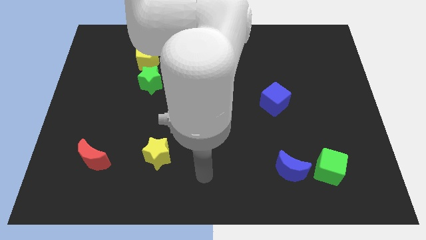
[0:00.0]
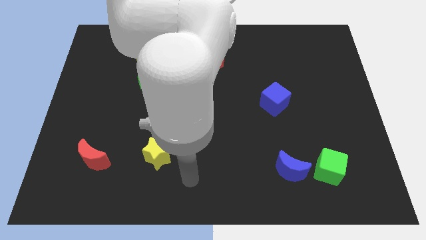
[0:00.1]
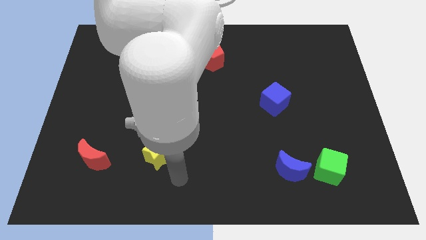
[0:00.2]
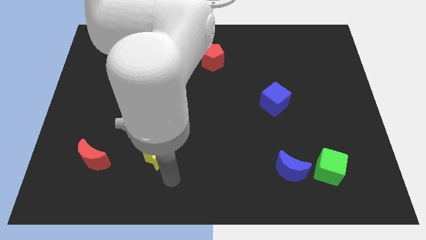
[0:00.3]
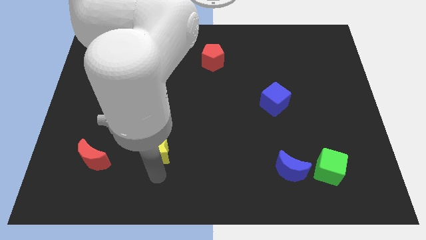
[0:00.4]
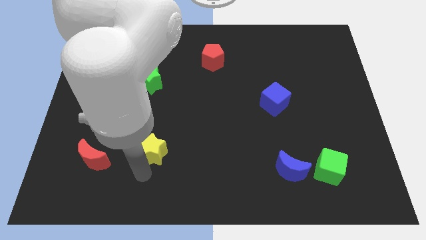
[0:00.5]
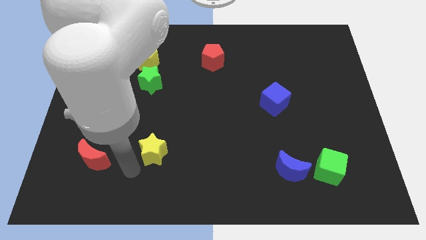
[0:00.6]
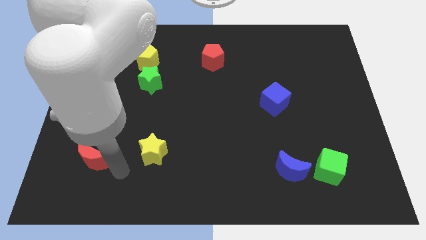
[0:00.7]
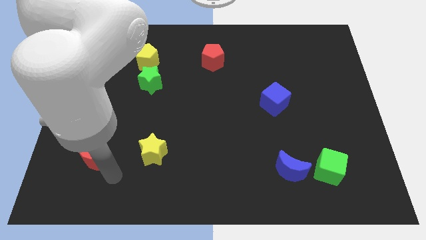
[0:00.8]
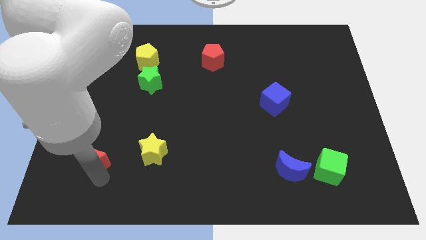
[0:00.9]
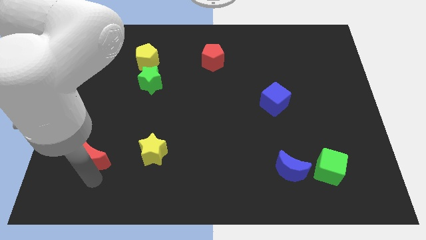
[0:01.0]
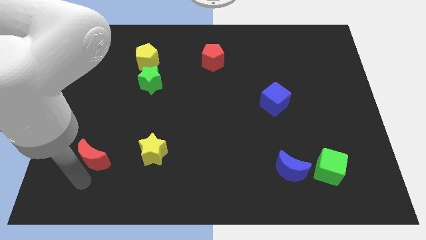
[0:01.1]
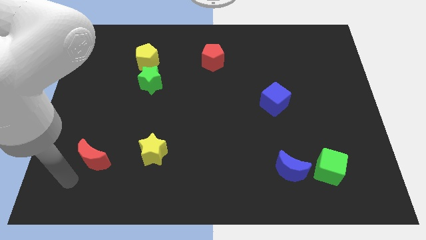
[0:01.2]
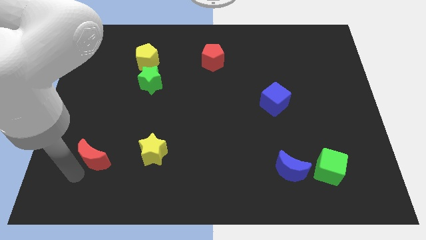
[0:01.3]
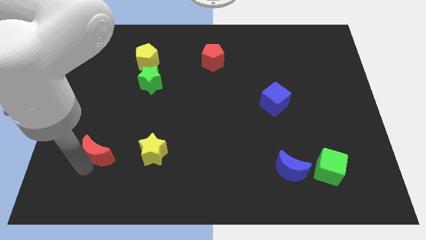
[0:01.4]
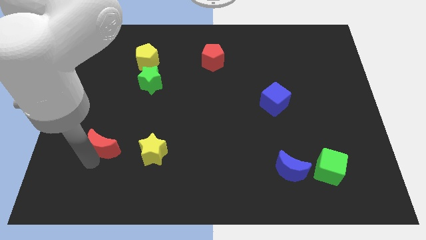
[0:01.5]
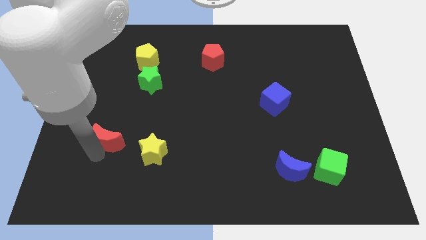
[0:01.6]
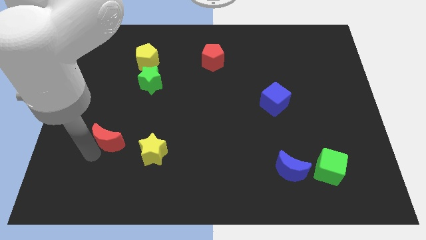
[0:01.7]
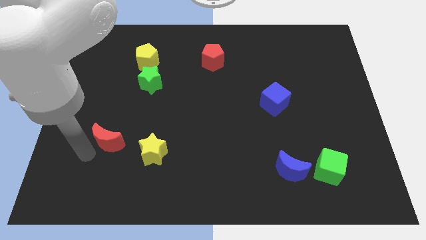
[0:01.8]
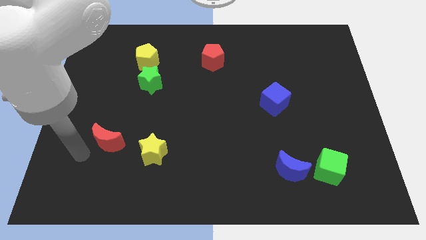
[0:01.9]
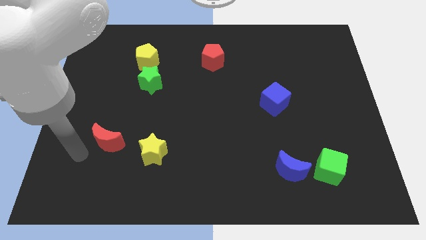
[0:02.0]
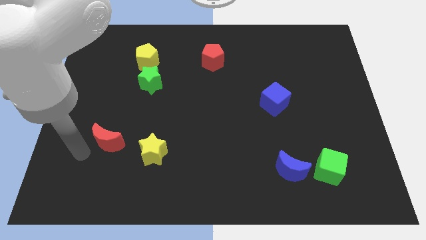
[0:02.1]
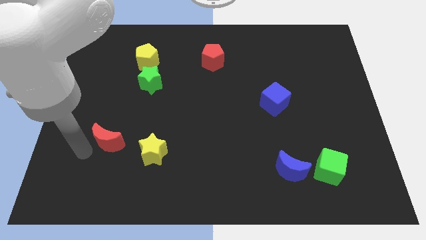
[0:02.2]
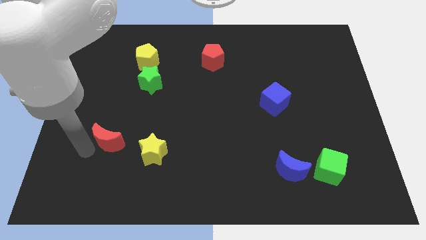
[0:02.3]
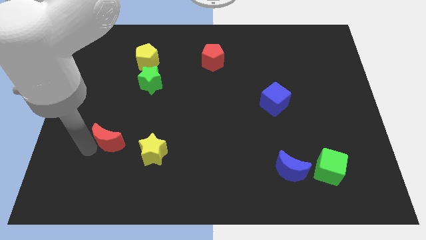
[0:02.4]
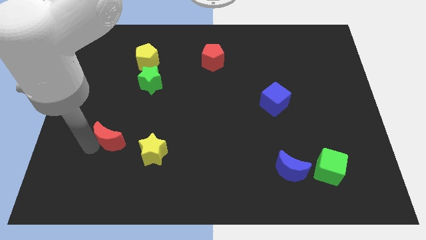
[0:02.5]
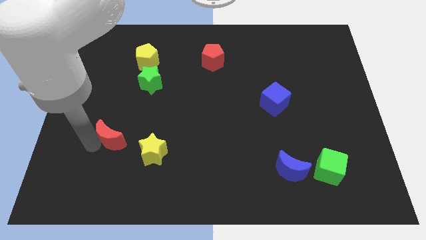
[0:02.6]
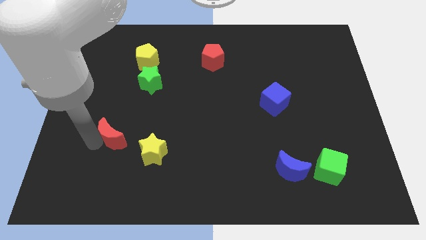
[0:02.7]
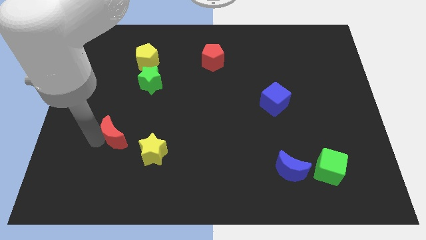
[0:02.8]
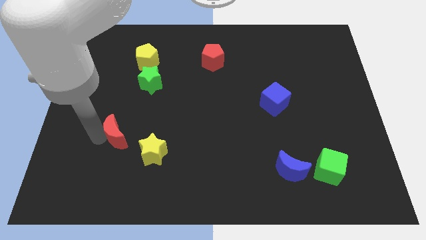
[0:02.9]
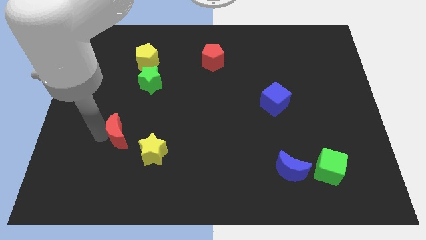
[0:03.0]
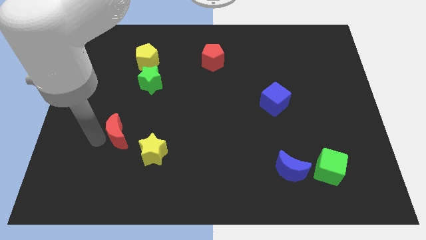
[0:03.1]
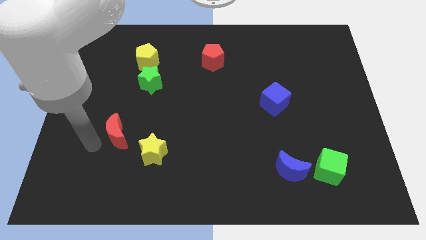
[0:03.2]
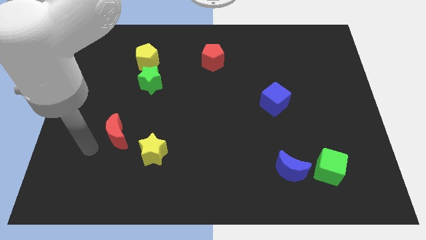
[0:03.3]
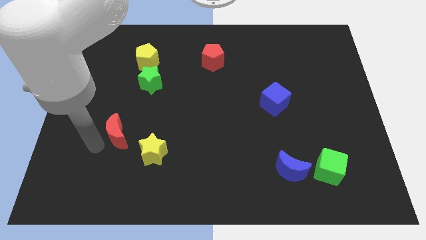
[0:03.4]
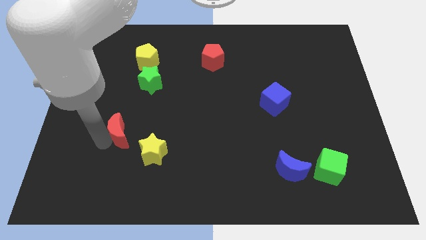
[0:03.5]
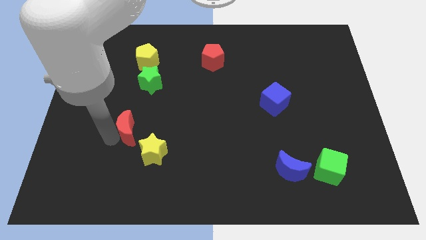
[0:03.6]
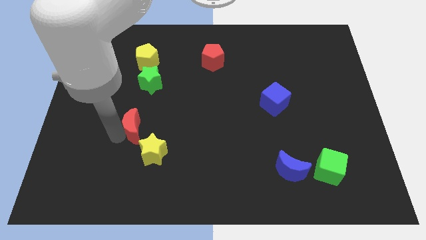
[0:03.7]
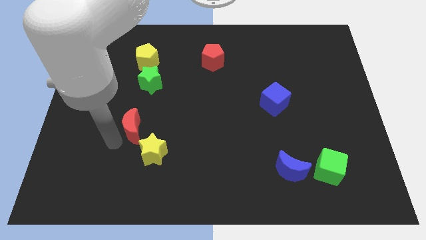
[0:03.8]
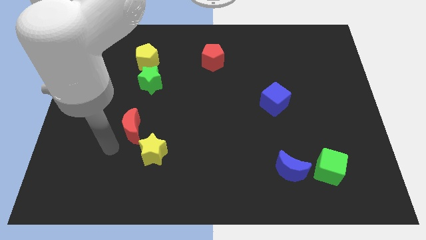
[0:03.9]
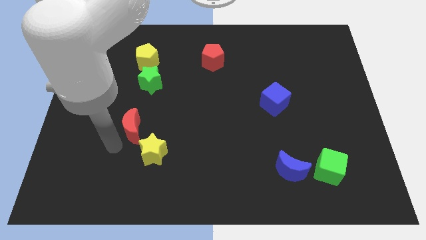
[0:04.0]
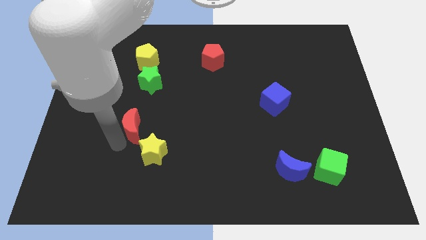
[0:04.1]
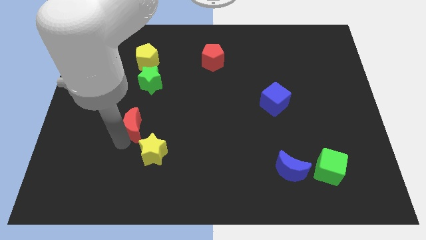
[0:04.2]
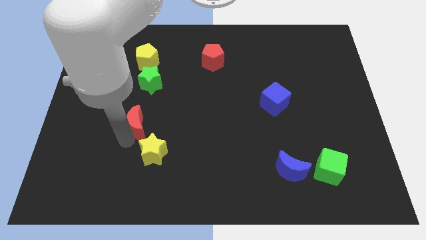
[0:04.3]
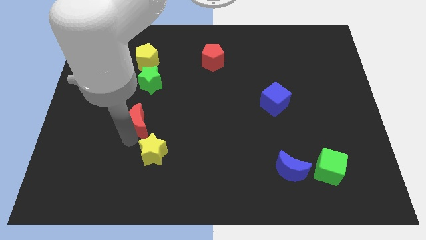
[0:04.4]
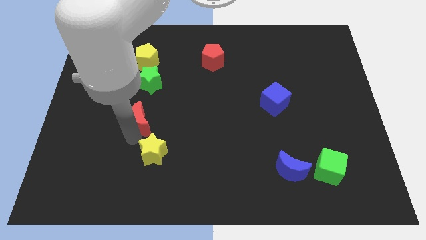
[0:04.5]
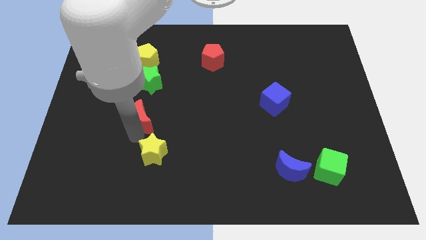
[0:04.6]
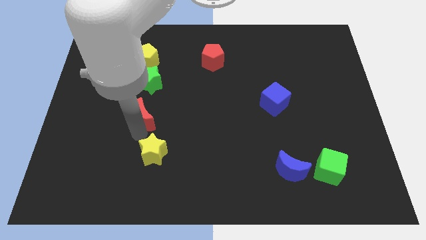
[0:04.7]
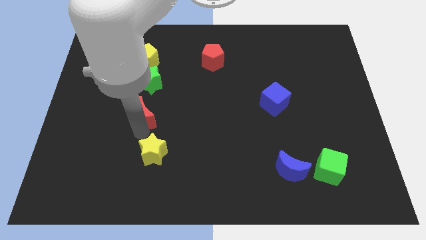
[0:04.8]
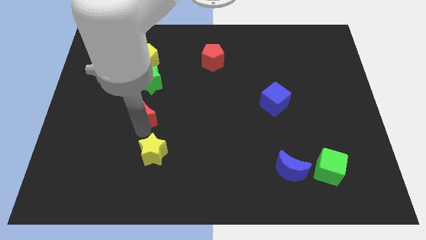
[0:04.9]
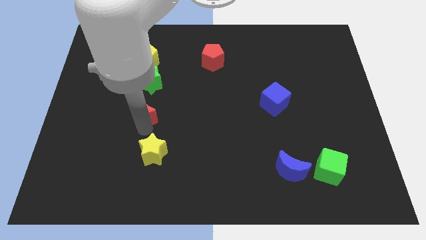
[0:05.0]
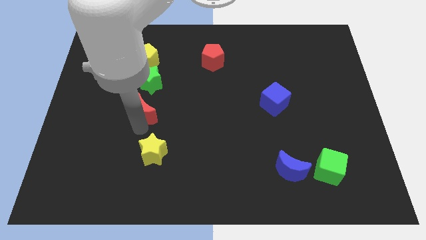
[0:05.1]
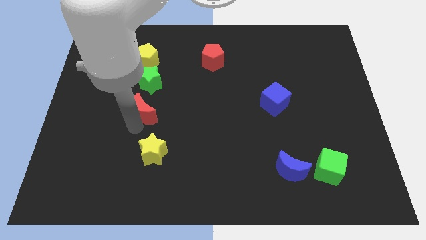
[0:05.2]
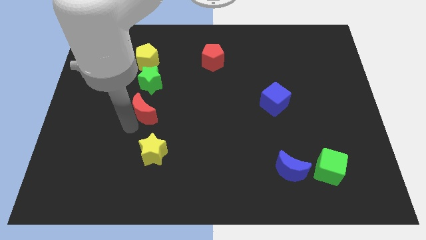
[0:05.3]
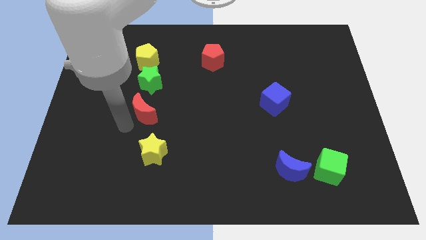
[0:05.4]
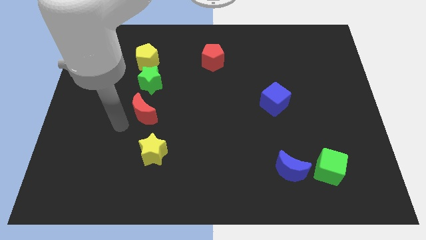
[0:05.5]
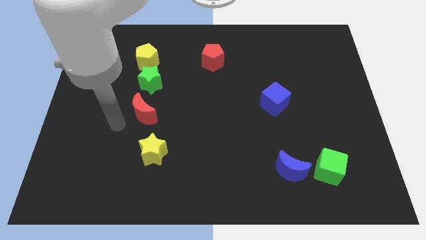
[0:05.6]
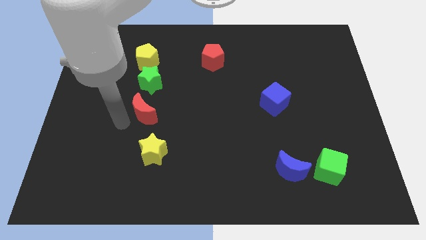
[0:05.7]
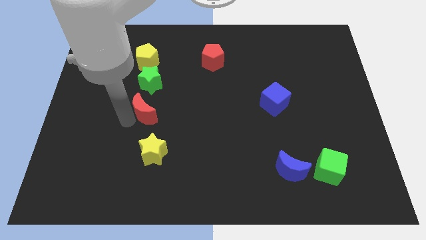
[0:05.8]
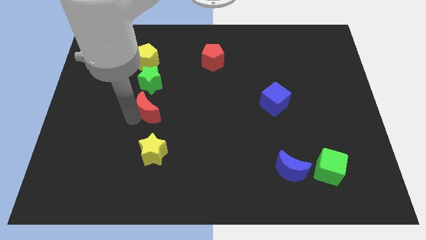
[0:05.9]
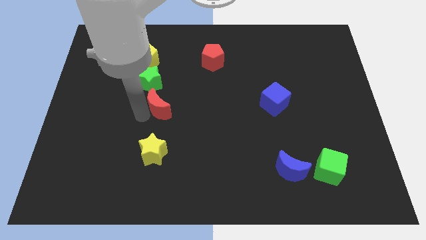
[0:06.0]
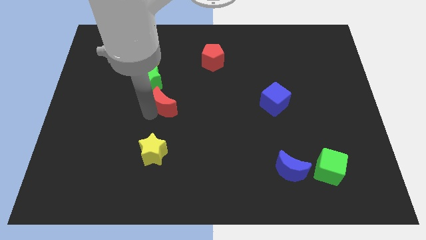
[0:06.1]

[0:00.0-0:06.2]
slide the red moon up and to the right diagonally

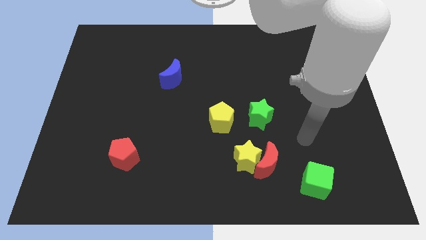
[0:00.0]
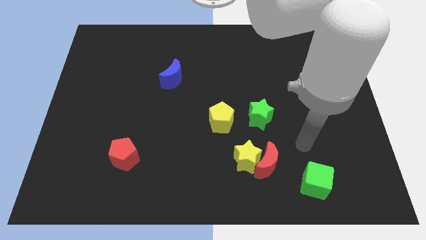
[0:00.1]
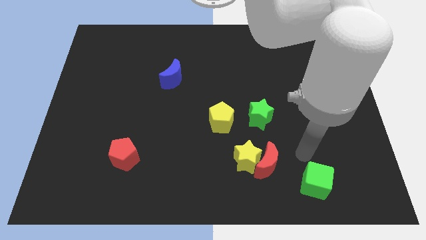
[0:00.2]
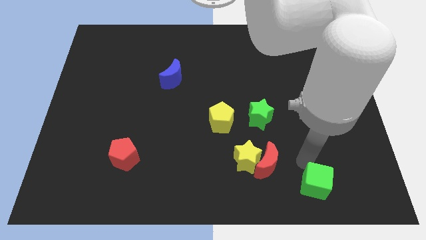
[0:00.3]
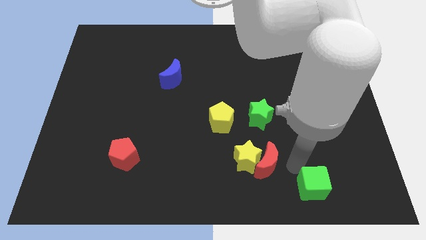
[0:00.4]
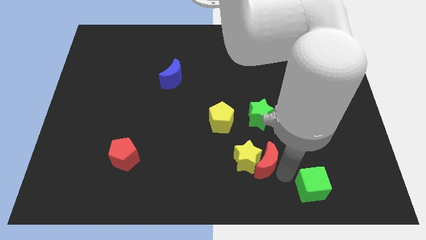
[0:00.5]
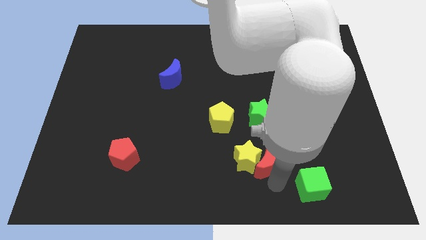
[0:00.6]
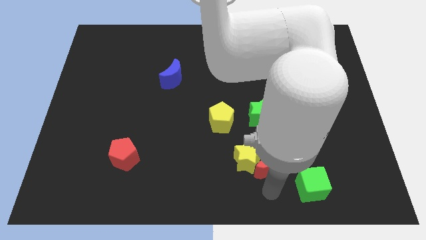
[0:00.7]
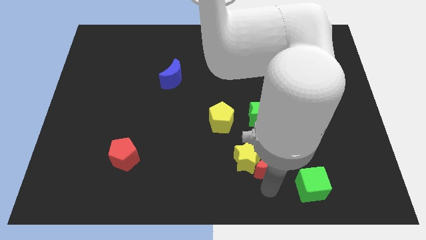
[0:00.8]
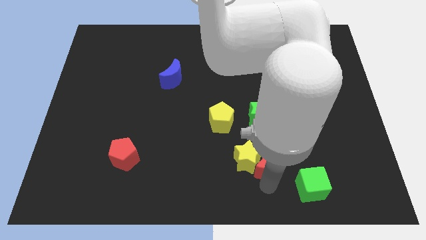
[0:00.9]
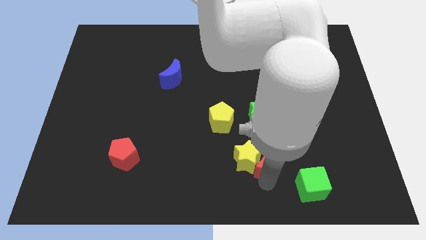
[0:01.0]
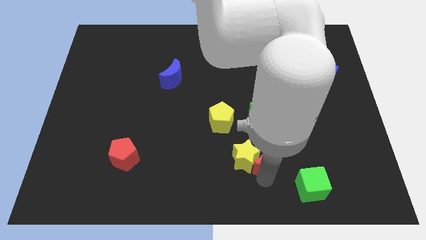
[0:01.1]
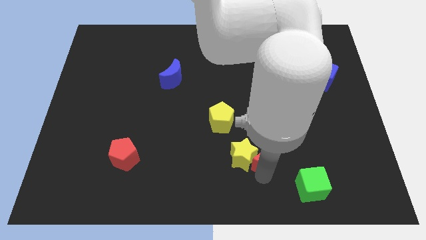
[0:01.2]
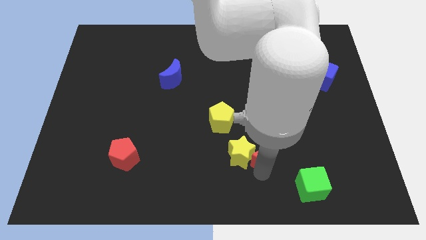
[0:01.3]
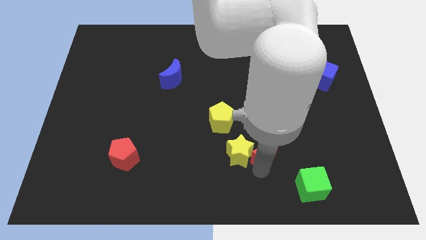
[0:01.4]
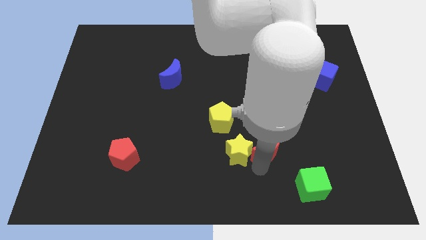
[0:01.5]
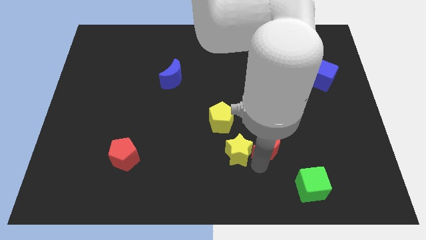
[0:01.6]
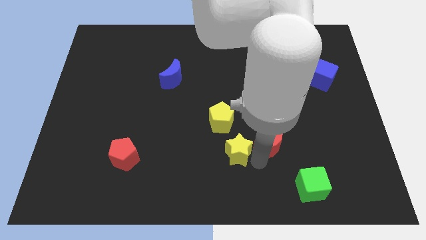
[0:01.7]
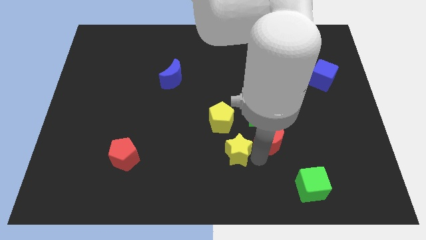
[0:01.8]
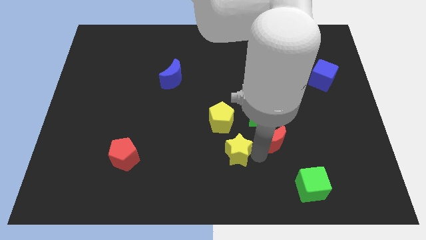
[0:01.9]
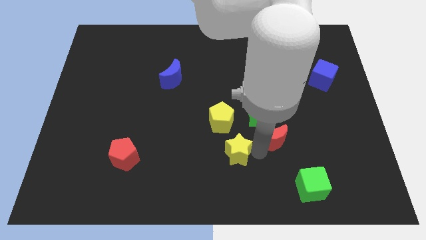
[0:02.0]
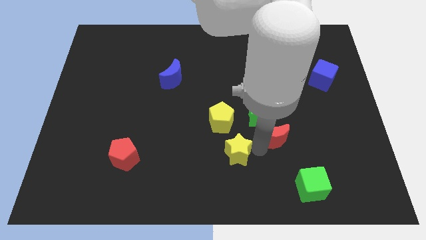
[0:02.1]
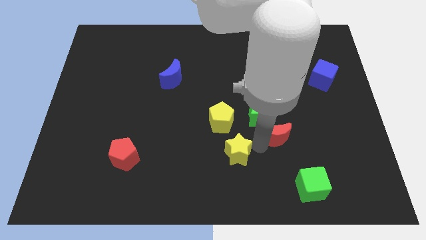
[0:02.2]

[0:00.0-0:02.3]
slightly slide the red moon up

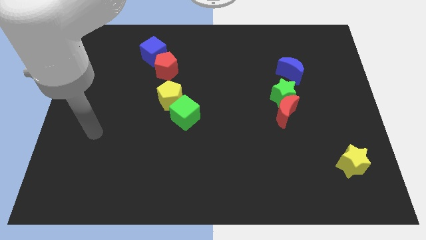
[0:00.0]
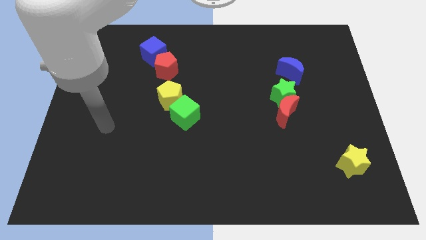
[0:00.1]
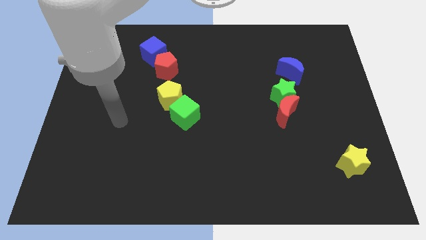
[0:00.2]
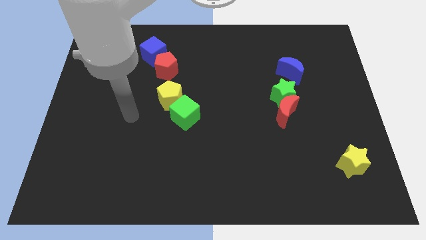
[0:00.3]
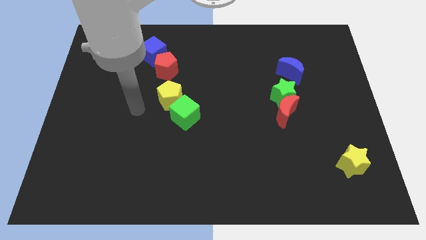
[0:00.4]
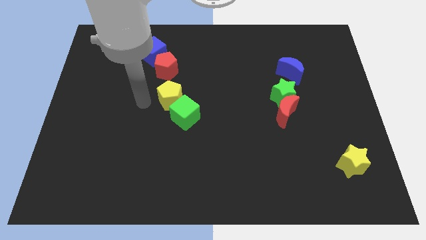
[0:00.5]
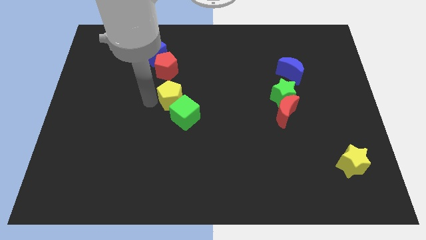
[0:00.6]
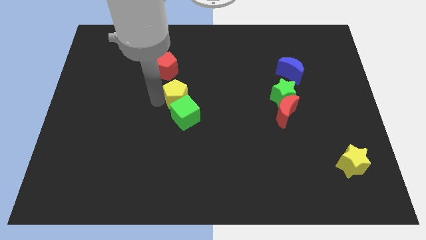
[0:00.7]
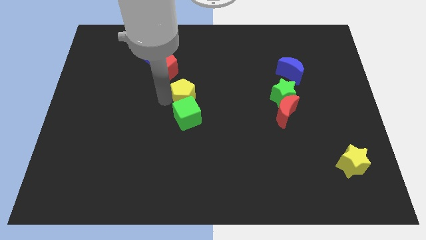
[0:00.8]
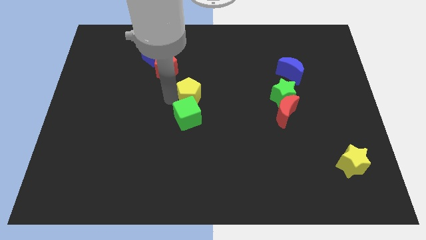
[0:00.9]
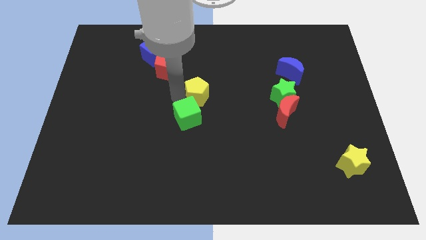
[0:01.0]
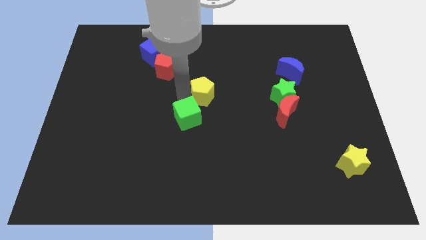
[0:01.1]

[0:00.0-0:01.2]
push the yellow pentagon somewhat to the right
